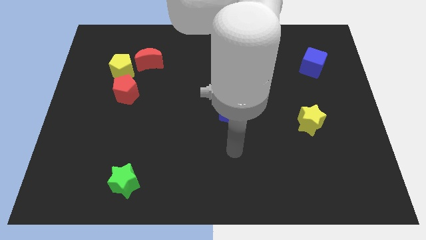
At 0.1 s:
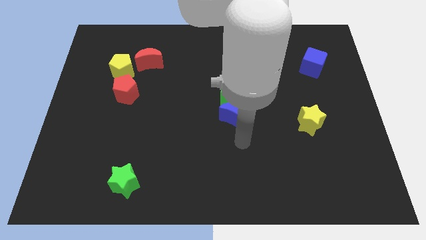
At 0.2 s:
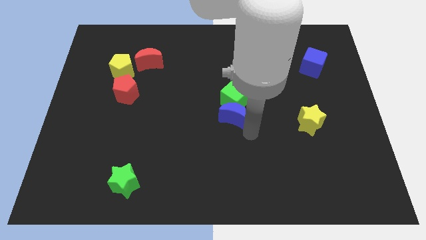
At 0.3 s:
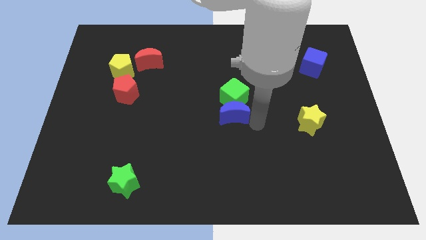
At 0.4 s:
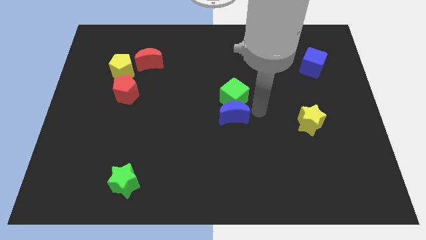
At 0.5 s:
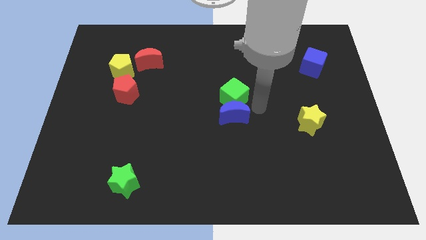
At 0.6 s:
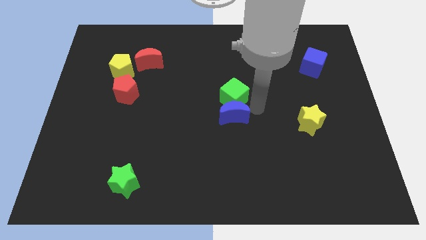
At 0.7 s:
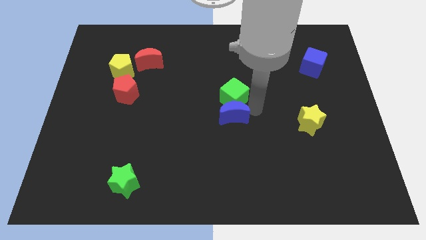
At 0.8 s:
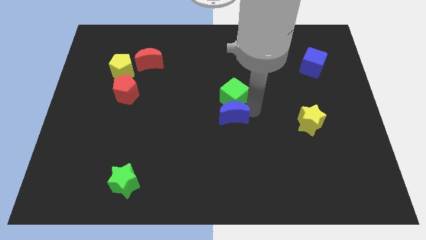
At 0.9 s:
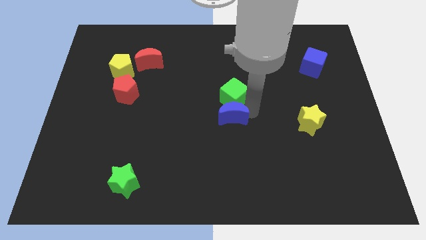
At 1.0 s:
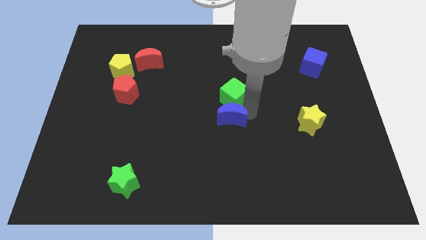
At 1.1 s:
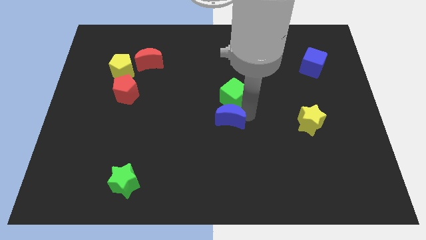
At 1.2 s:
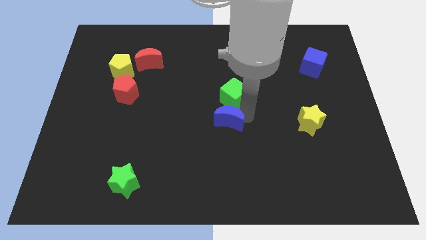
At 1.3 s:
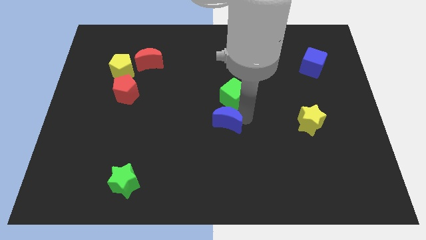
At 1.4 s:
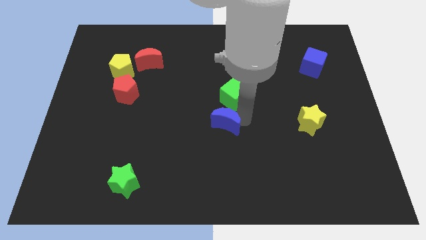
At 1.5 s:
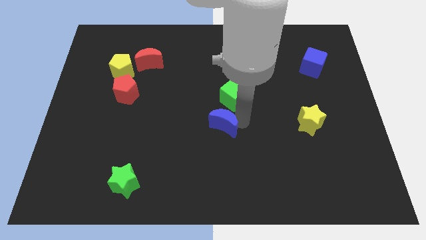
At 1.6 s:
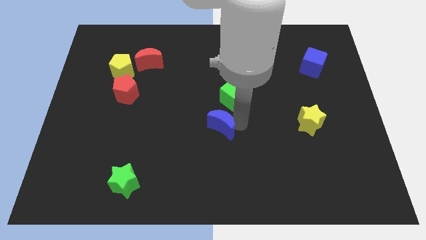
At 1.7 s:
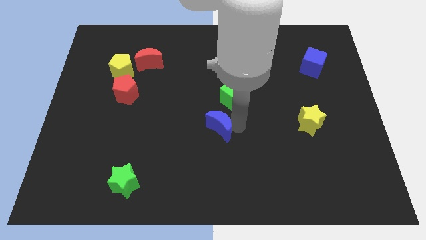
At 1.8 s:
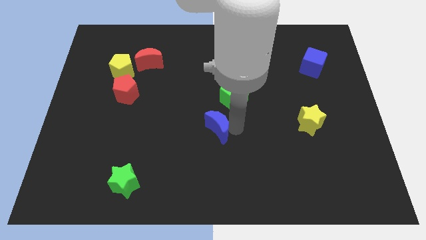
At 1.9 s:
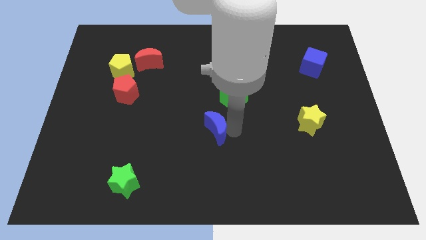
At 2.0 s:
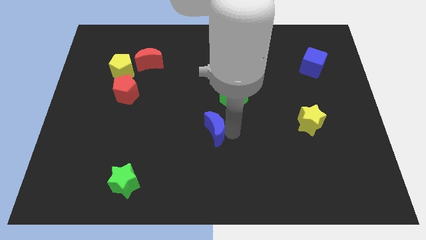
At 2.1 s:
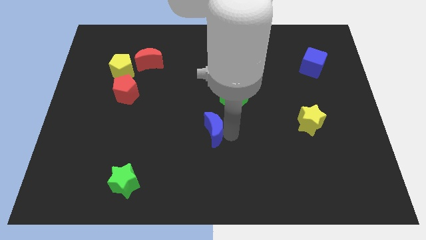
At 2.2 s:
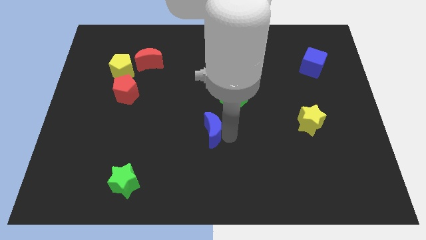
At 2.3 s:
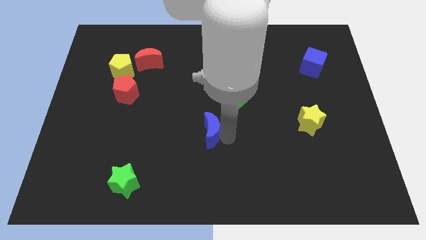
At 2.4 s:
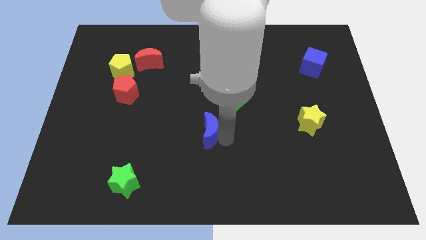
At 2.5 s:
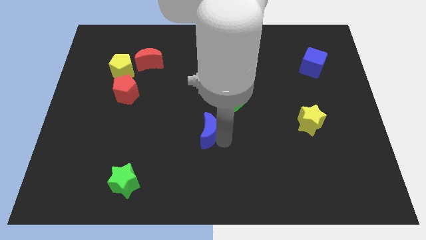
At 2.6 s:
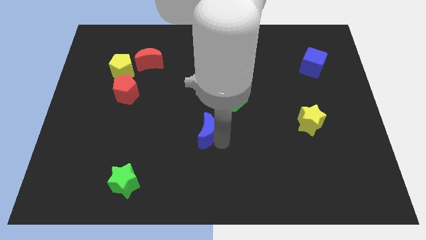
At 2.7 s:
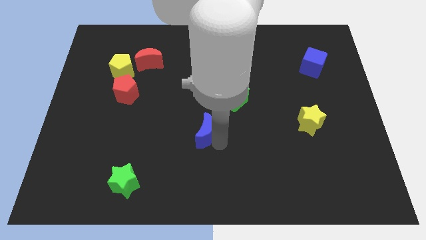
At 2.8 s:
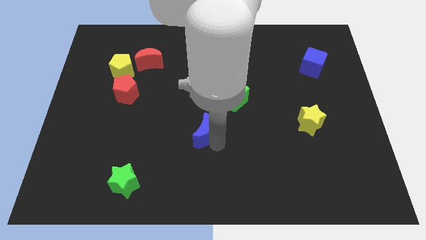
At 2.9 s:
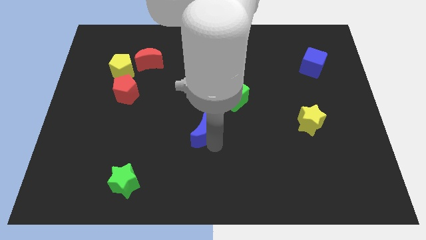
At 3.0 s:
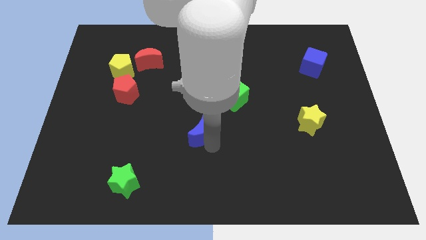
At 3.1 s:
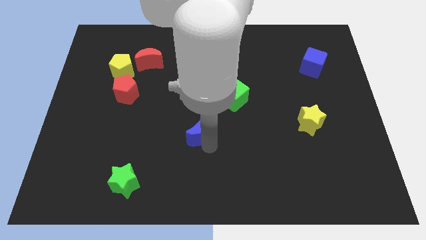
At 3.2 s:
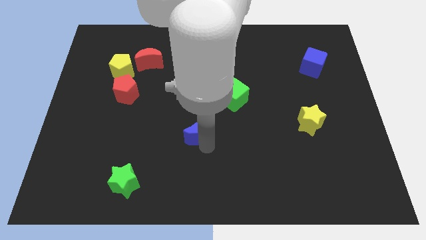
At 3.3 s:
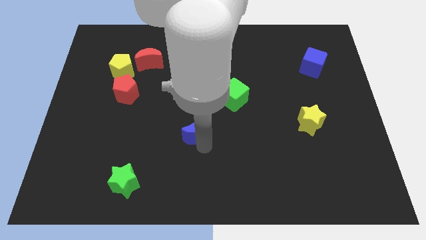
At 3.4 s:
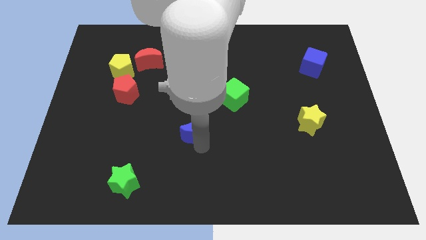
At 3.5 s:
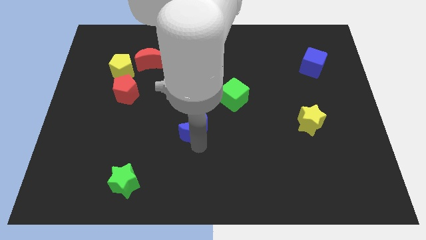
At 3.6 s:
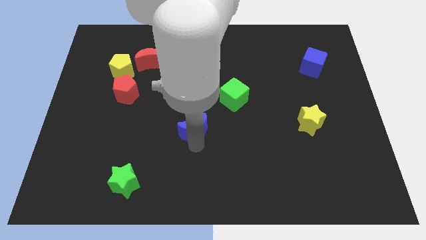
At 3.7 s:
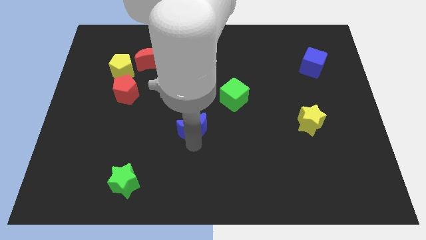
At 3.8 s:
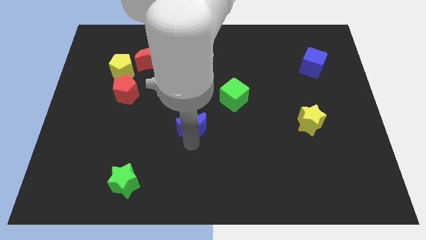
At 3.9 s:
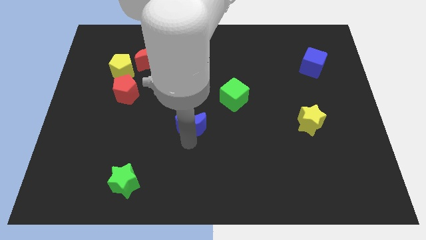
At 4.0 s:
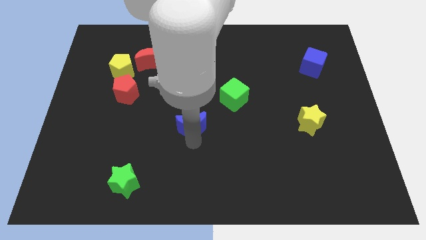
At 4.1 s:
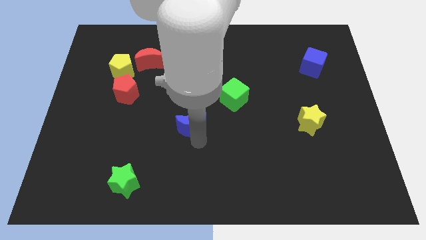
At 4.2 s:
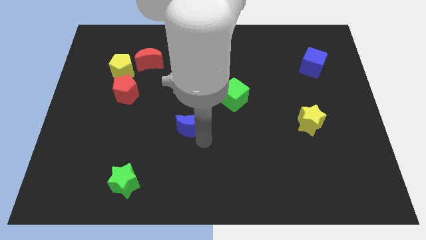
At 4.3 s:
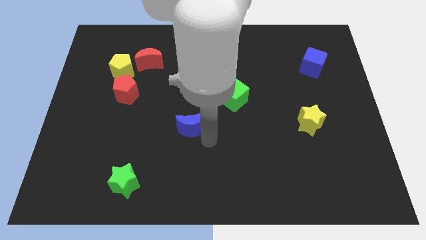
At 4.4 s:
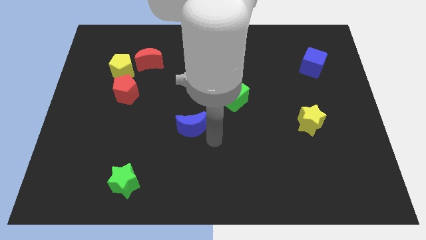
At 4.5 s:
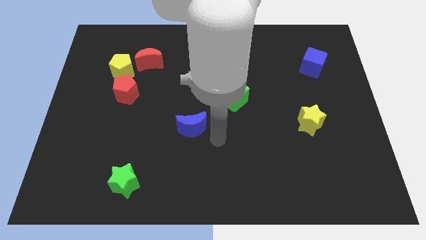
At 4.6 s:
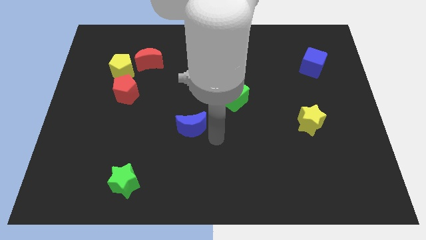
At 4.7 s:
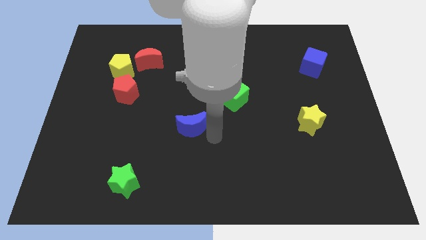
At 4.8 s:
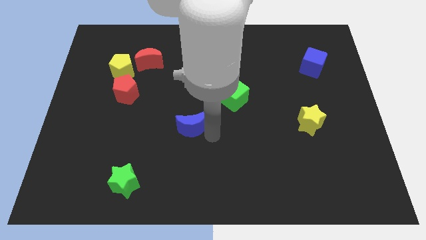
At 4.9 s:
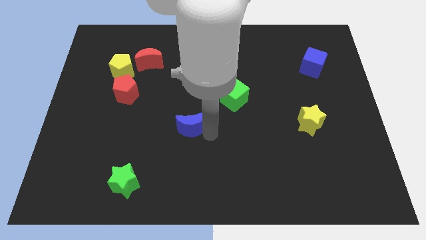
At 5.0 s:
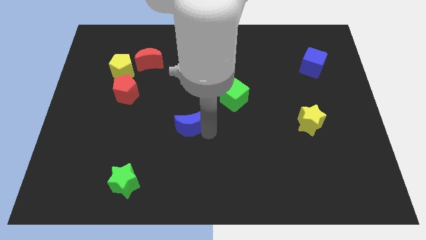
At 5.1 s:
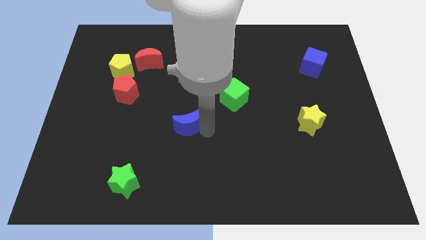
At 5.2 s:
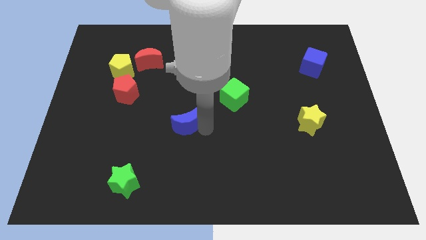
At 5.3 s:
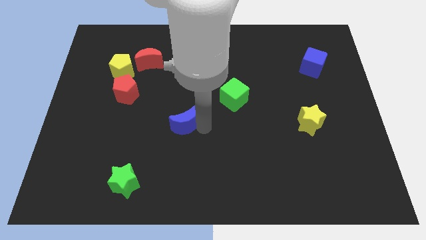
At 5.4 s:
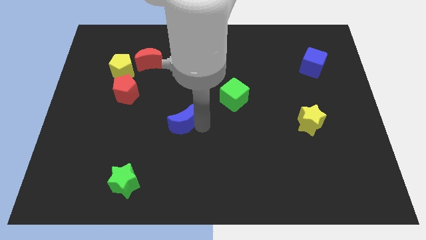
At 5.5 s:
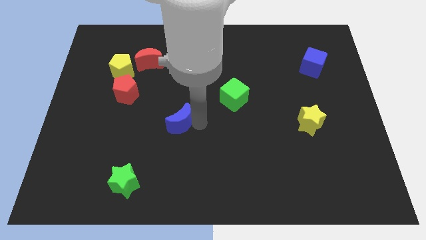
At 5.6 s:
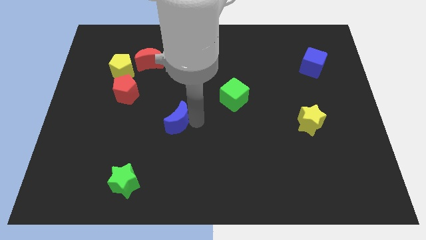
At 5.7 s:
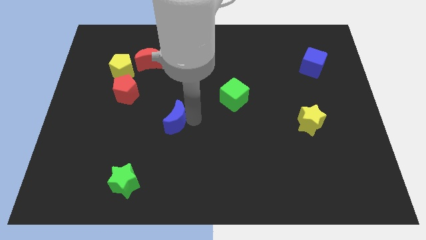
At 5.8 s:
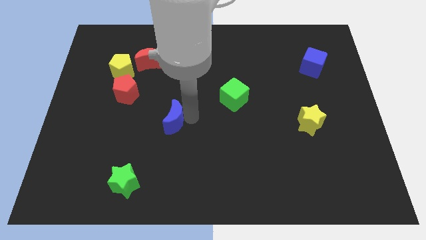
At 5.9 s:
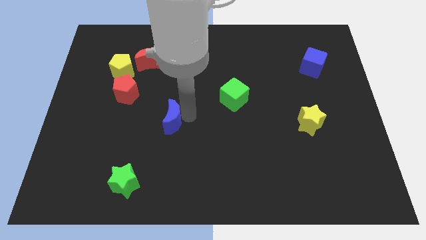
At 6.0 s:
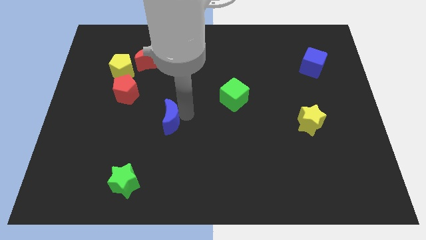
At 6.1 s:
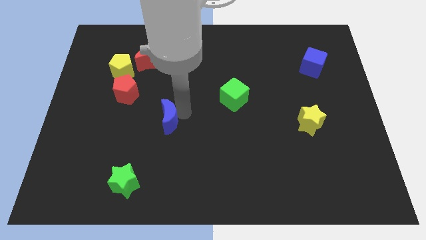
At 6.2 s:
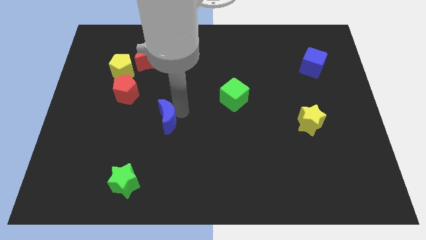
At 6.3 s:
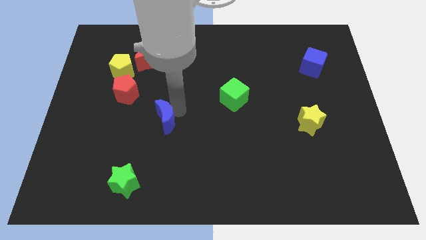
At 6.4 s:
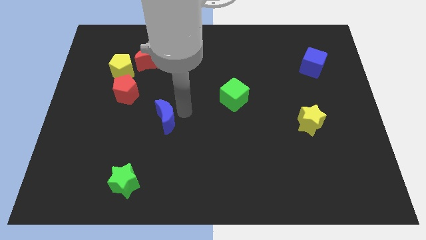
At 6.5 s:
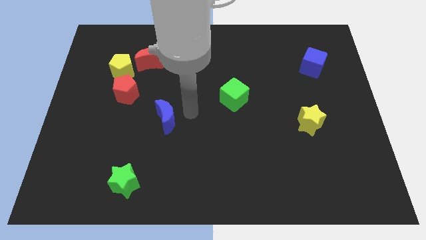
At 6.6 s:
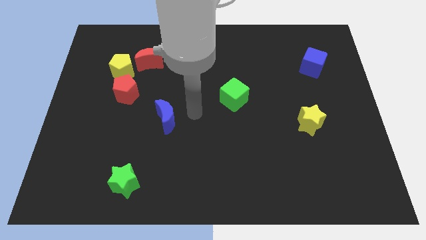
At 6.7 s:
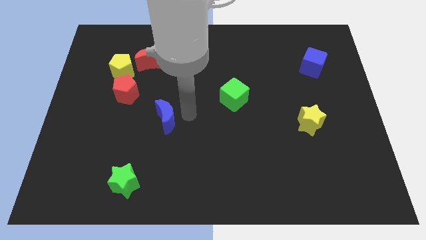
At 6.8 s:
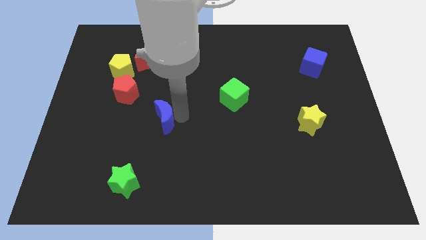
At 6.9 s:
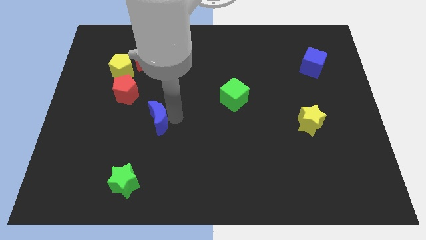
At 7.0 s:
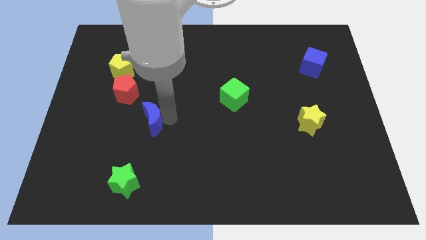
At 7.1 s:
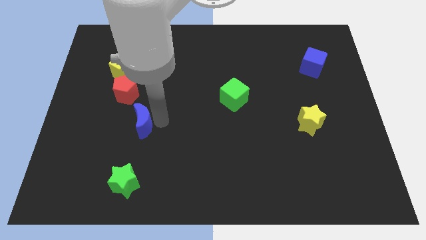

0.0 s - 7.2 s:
slide the blue moon to the left

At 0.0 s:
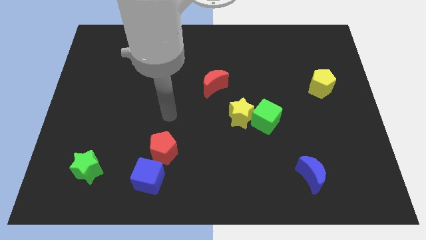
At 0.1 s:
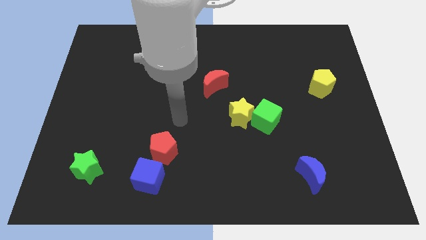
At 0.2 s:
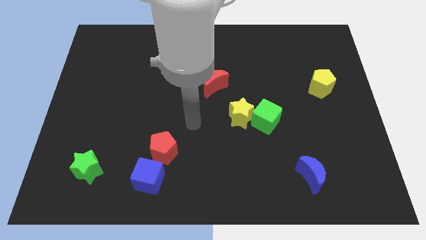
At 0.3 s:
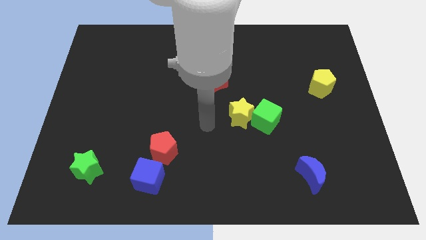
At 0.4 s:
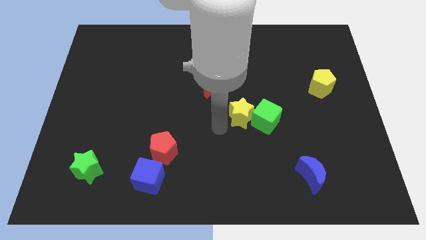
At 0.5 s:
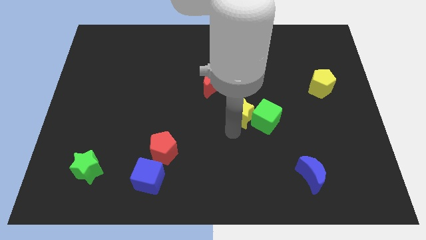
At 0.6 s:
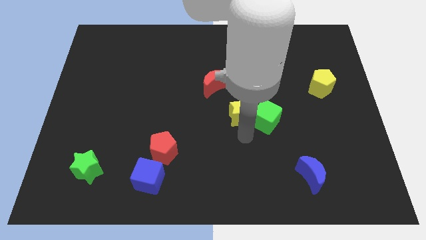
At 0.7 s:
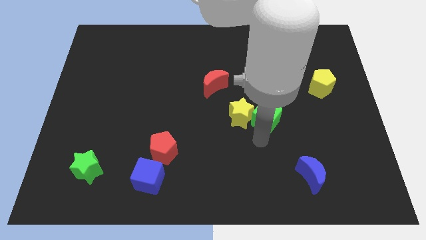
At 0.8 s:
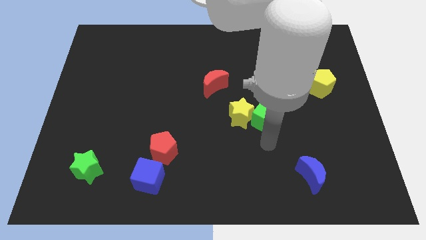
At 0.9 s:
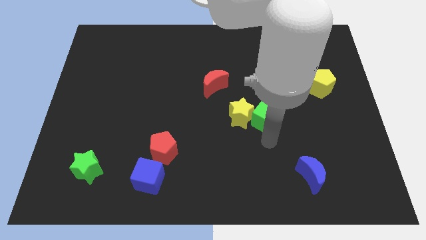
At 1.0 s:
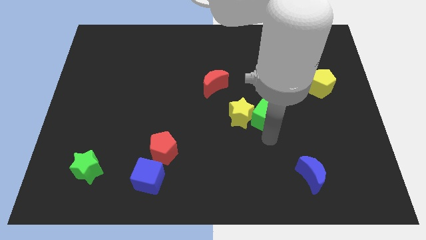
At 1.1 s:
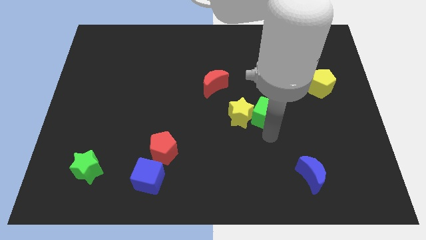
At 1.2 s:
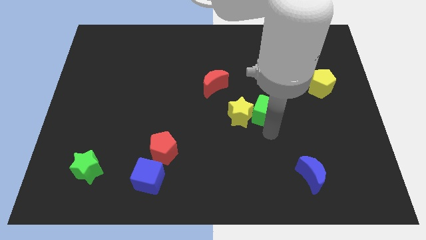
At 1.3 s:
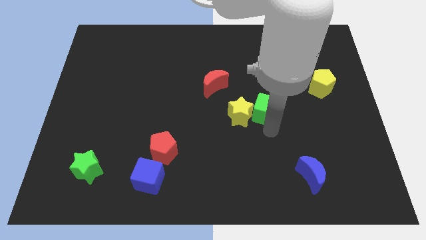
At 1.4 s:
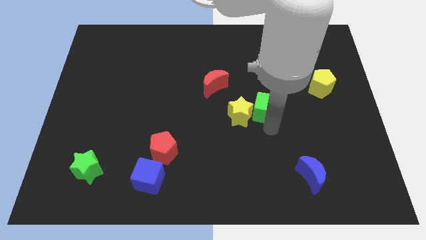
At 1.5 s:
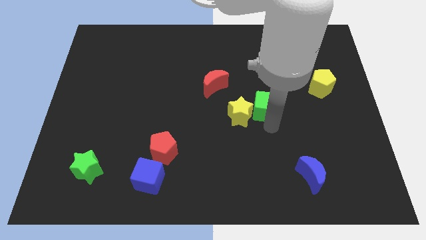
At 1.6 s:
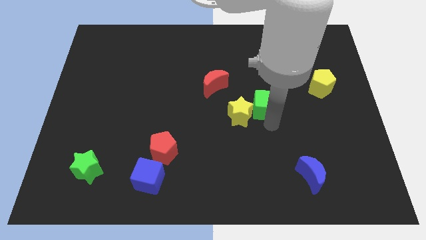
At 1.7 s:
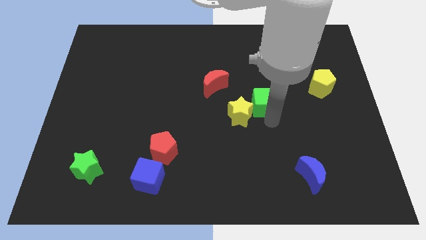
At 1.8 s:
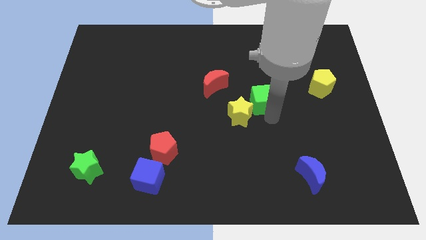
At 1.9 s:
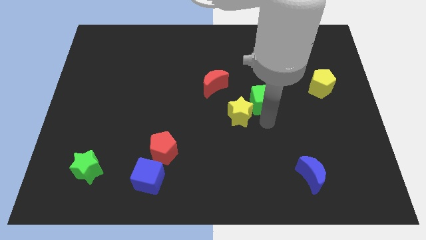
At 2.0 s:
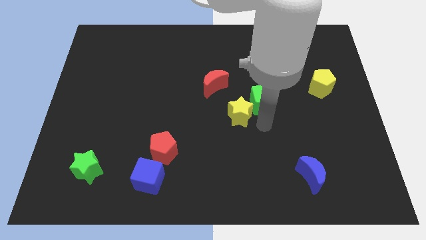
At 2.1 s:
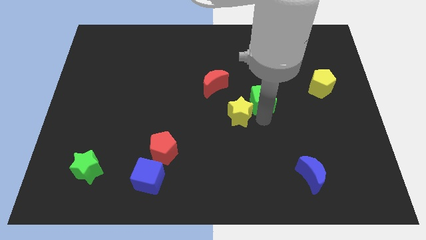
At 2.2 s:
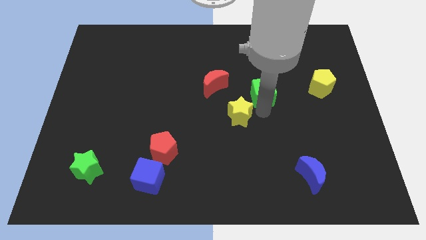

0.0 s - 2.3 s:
push the green cube up a bit
